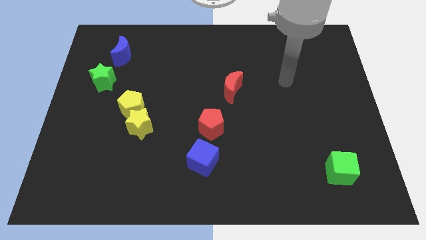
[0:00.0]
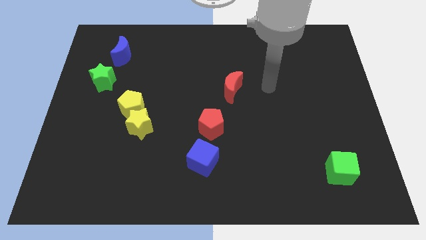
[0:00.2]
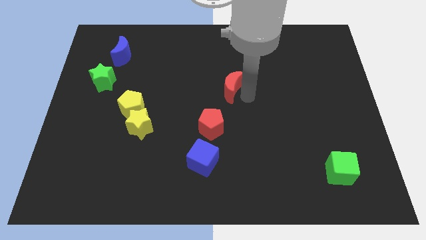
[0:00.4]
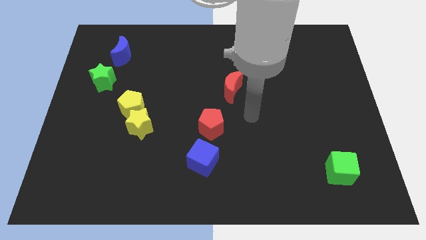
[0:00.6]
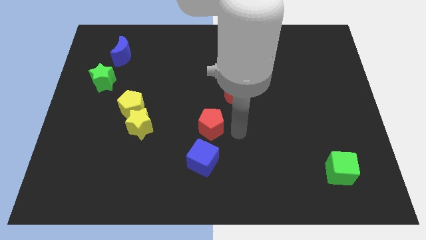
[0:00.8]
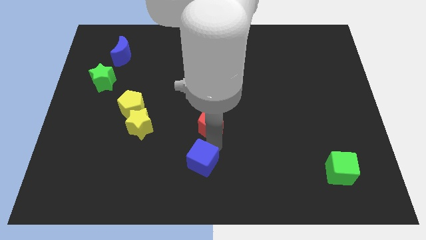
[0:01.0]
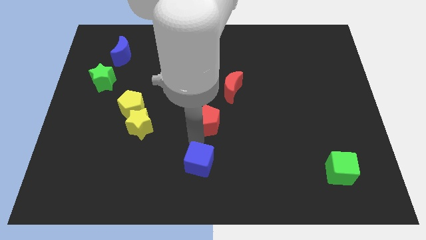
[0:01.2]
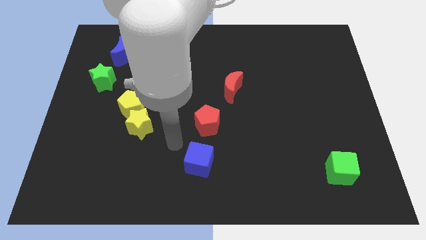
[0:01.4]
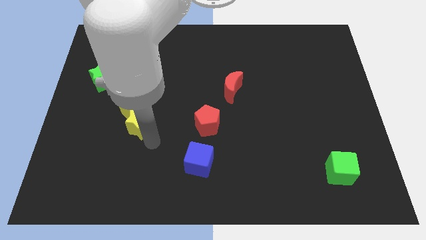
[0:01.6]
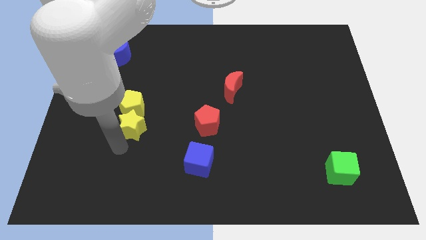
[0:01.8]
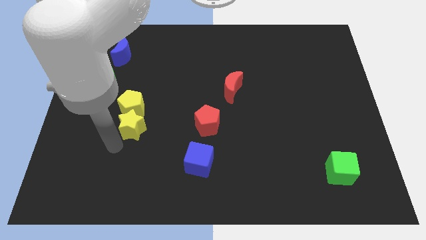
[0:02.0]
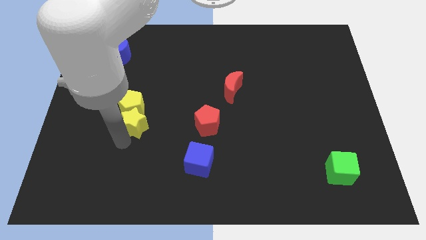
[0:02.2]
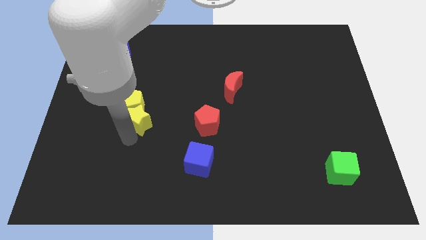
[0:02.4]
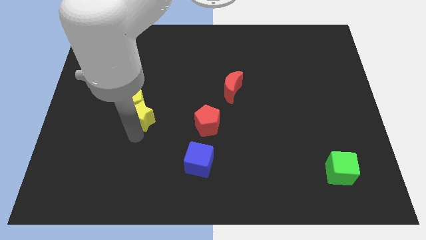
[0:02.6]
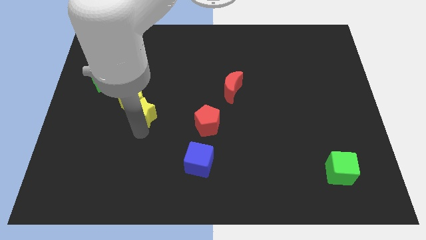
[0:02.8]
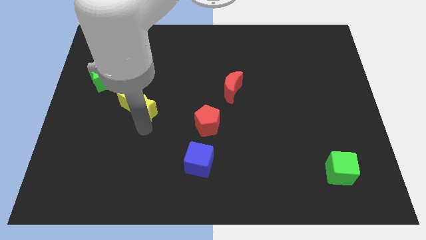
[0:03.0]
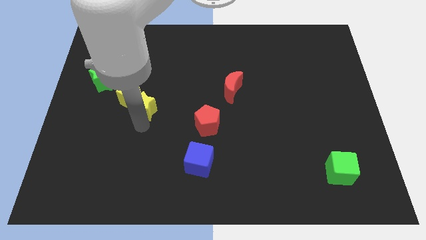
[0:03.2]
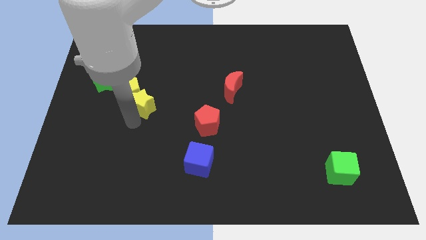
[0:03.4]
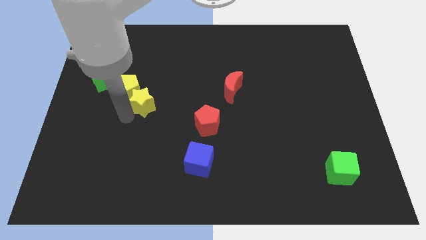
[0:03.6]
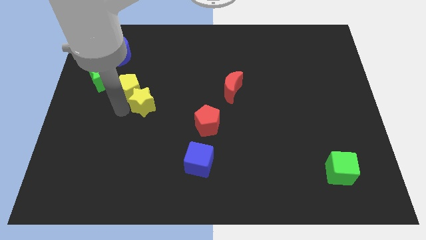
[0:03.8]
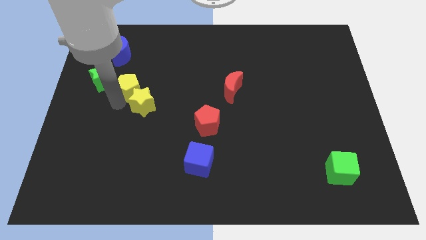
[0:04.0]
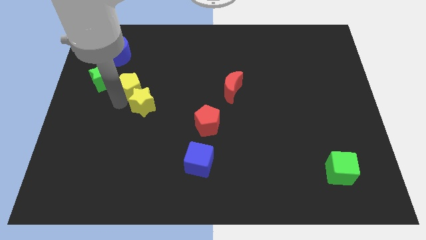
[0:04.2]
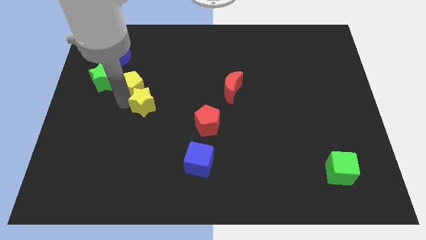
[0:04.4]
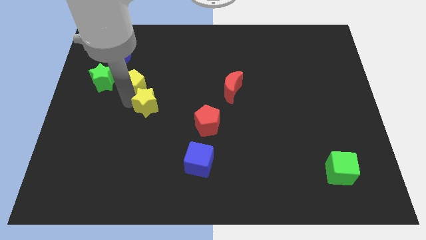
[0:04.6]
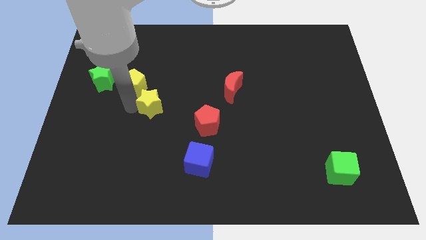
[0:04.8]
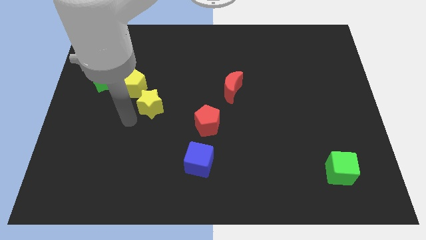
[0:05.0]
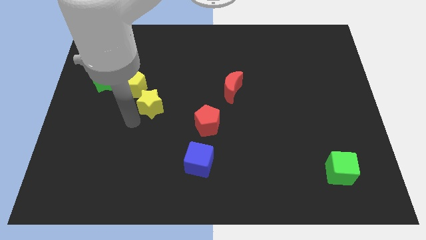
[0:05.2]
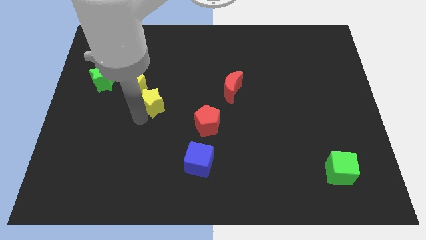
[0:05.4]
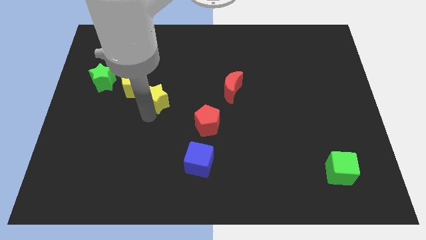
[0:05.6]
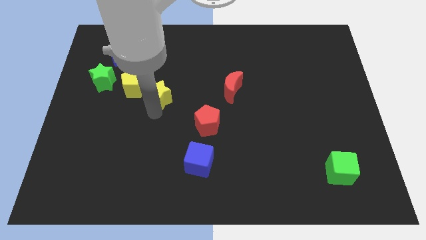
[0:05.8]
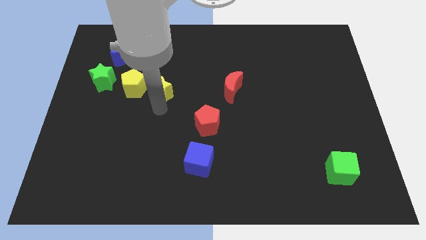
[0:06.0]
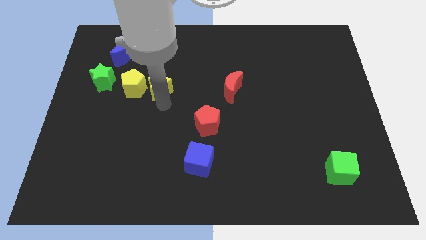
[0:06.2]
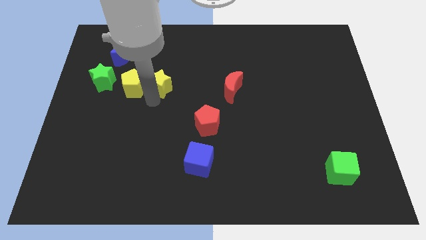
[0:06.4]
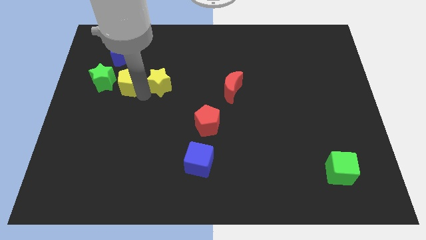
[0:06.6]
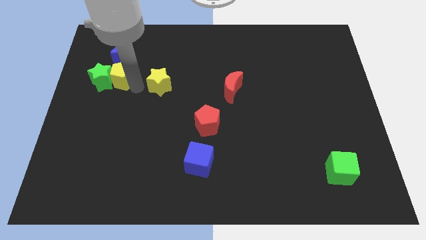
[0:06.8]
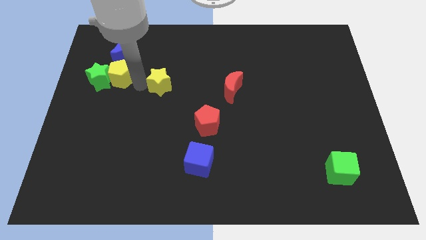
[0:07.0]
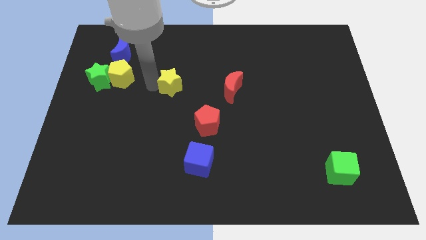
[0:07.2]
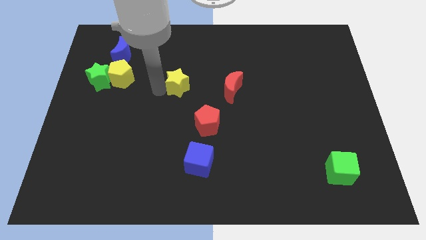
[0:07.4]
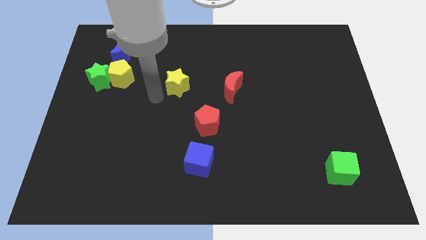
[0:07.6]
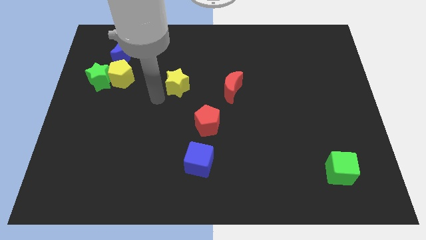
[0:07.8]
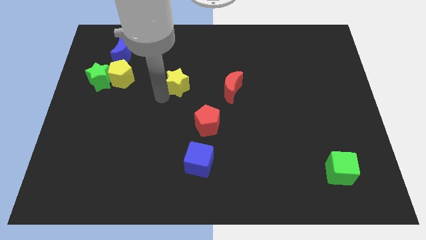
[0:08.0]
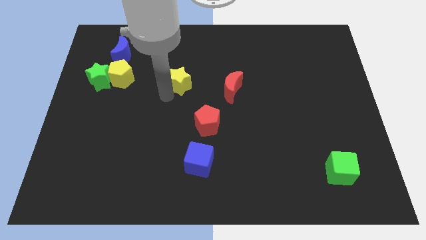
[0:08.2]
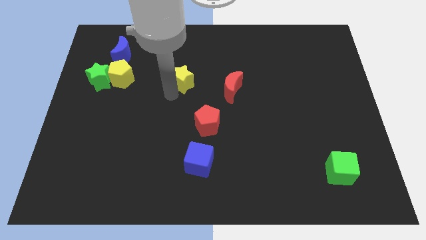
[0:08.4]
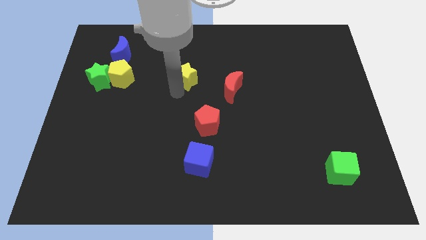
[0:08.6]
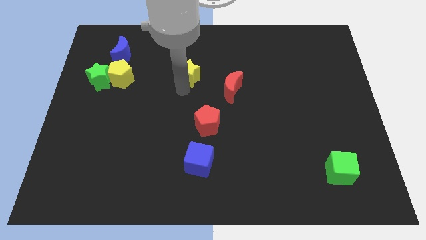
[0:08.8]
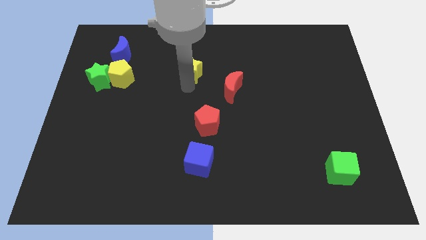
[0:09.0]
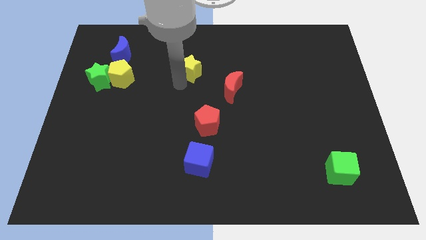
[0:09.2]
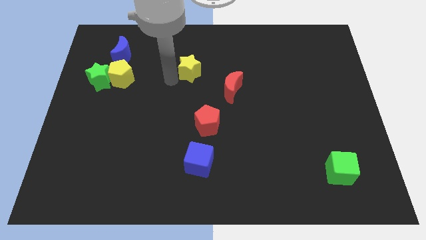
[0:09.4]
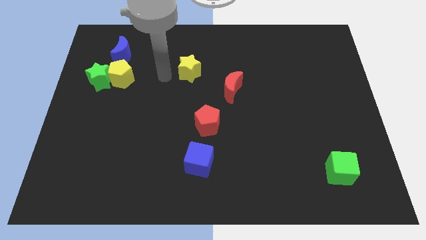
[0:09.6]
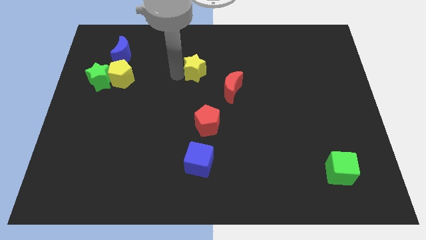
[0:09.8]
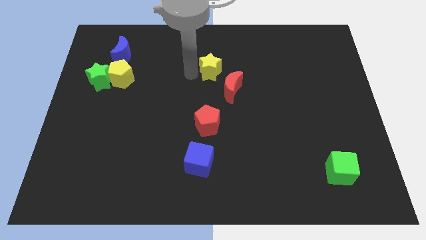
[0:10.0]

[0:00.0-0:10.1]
move the yellow star to the top of the red moon

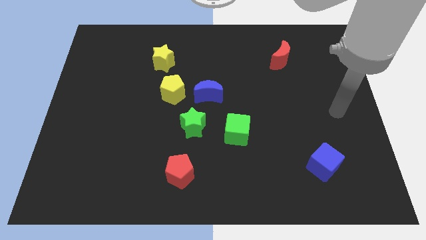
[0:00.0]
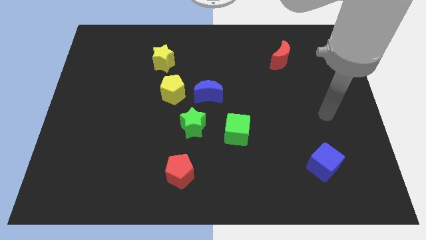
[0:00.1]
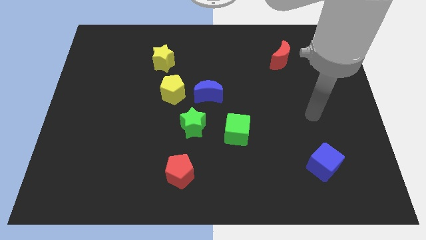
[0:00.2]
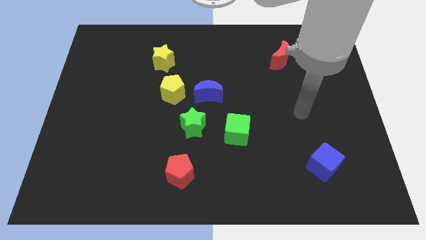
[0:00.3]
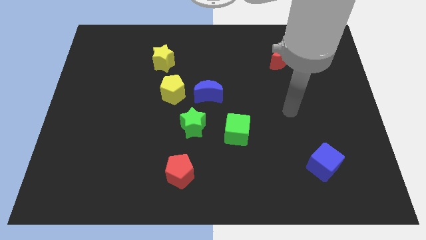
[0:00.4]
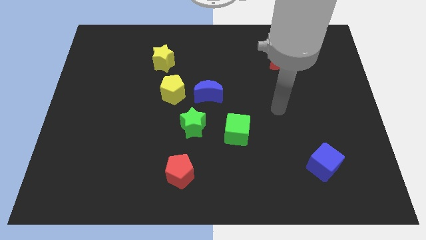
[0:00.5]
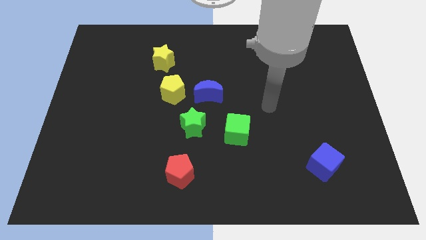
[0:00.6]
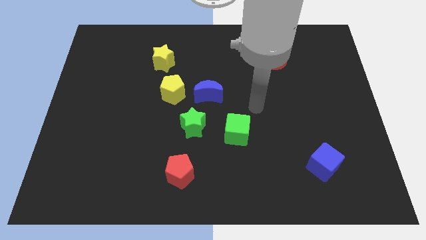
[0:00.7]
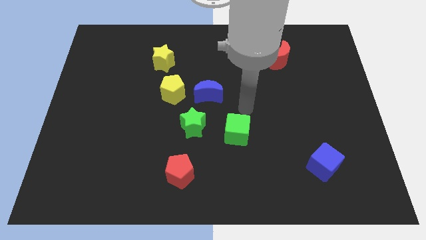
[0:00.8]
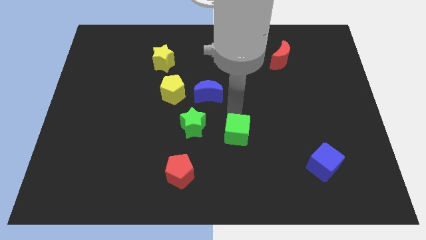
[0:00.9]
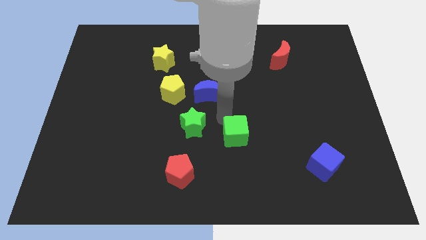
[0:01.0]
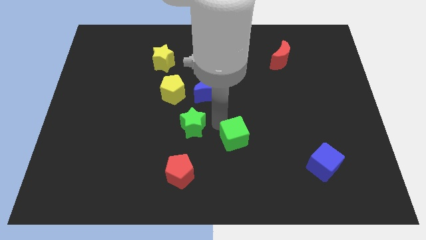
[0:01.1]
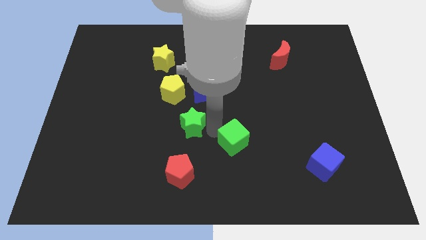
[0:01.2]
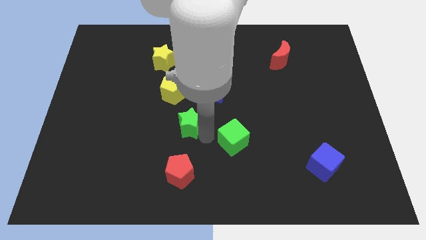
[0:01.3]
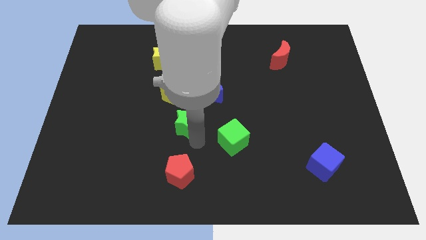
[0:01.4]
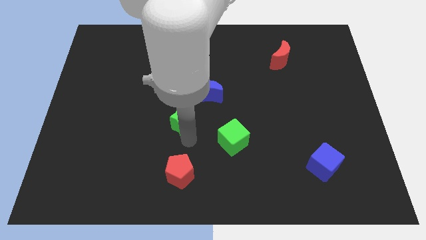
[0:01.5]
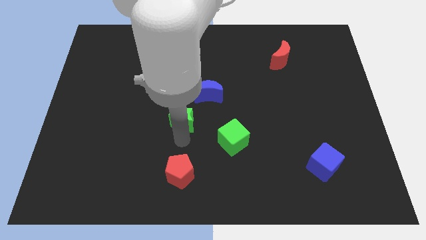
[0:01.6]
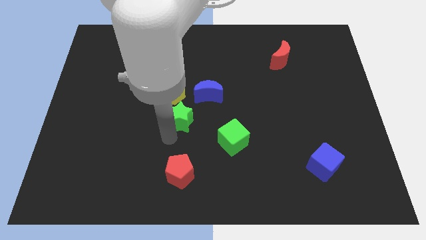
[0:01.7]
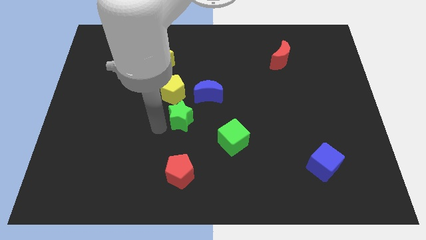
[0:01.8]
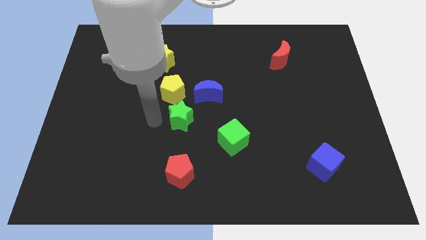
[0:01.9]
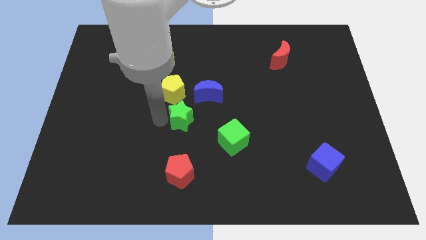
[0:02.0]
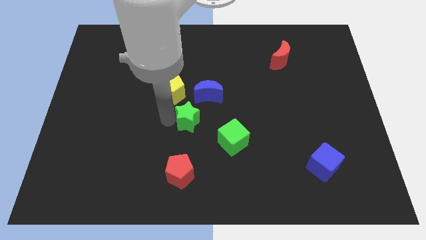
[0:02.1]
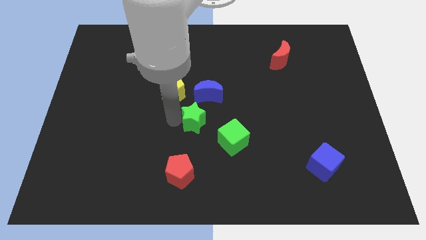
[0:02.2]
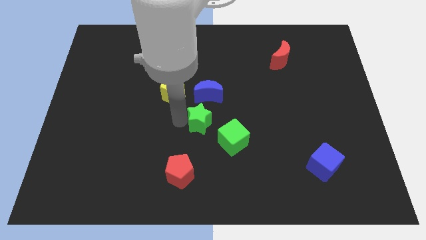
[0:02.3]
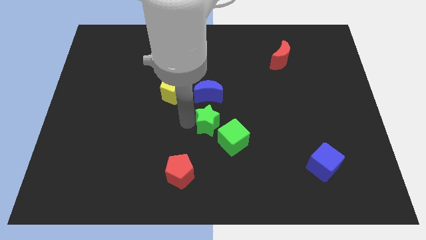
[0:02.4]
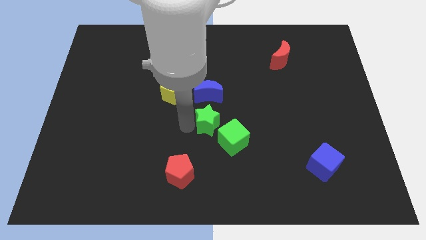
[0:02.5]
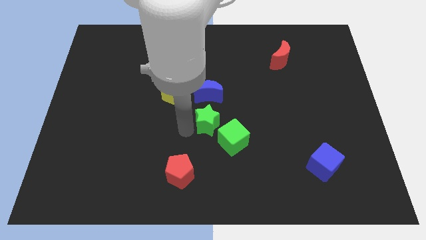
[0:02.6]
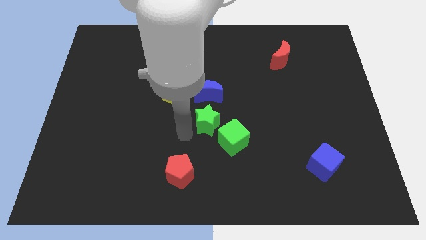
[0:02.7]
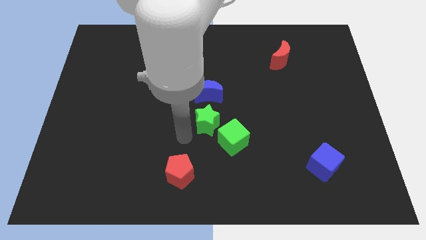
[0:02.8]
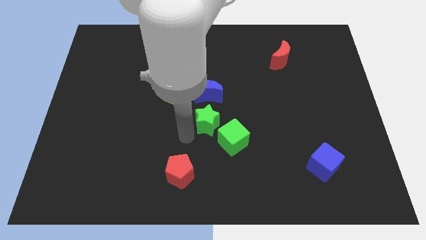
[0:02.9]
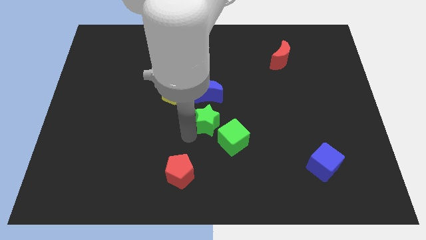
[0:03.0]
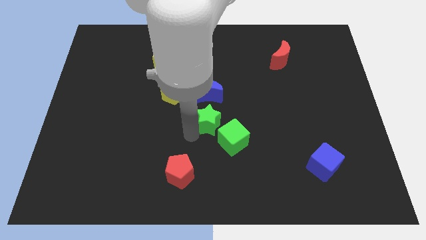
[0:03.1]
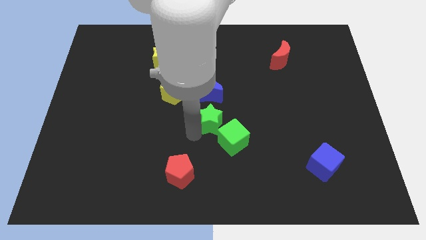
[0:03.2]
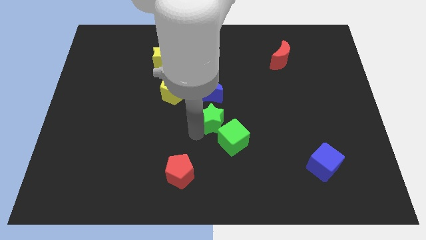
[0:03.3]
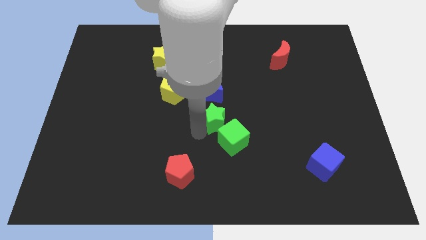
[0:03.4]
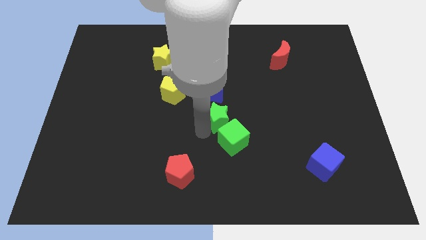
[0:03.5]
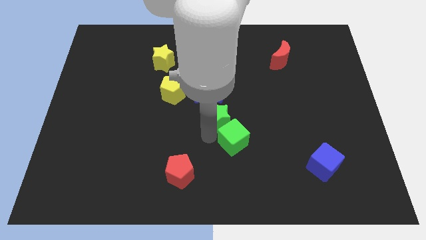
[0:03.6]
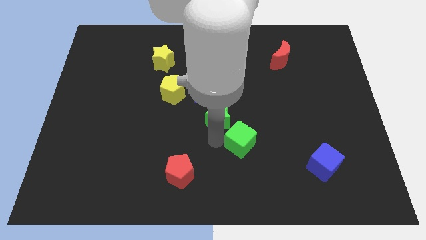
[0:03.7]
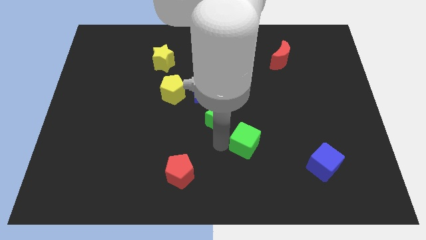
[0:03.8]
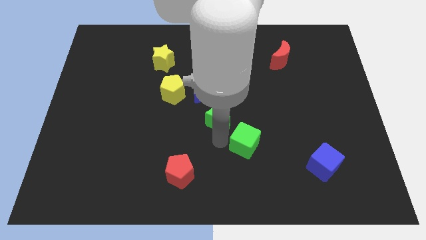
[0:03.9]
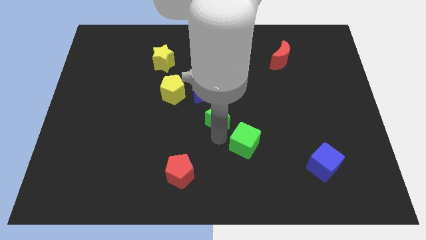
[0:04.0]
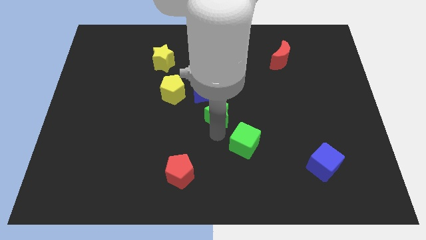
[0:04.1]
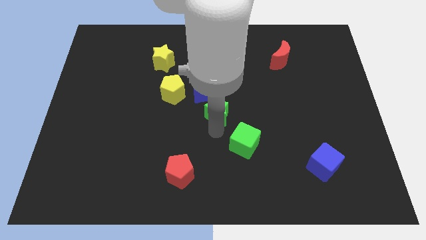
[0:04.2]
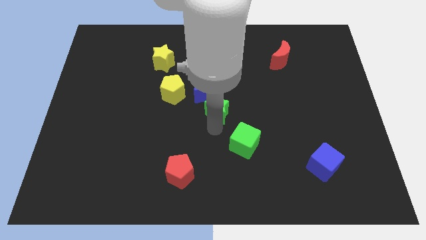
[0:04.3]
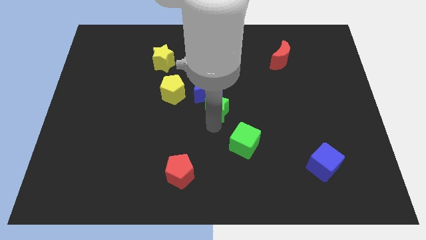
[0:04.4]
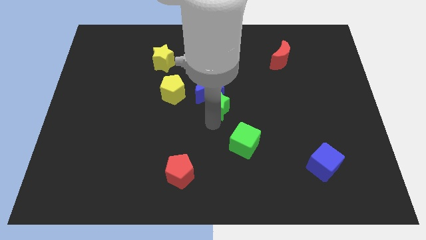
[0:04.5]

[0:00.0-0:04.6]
slide the green star to the right side of the yellow pentagon
